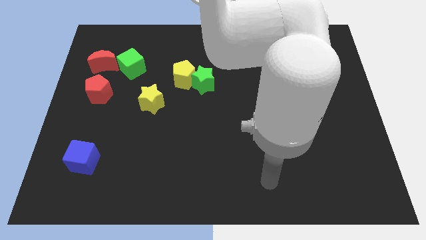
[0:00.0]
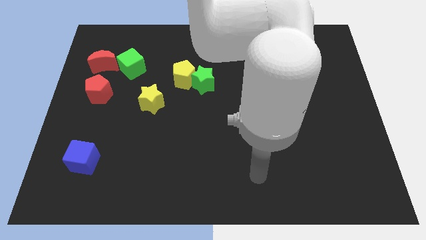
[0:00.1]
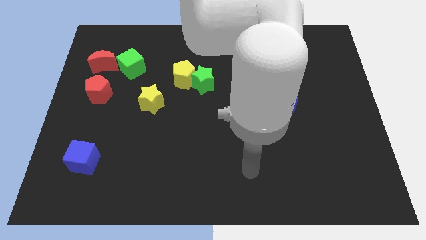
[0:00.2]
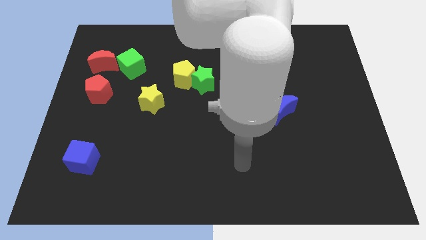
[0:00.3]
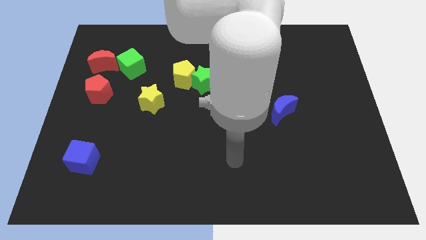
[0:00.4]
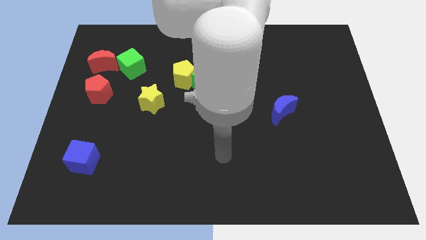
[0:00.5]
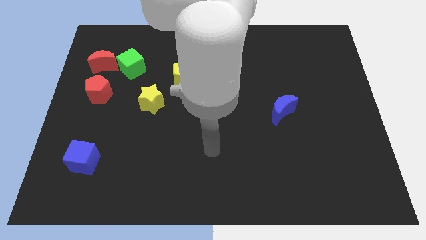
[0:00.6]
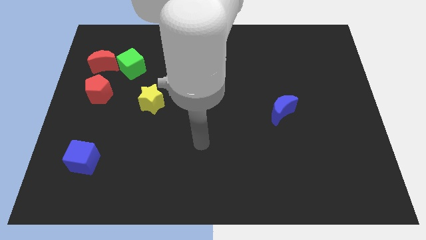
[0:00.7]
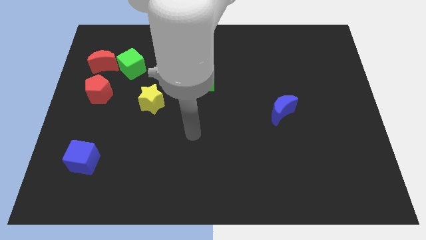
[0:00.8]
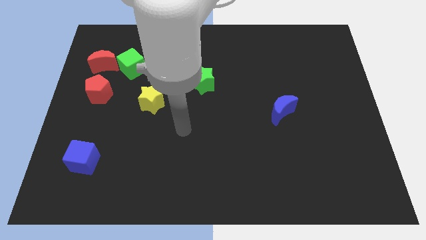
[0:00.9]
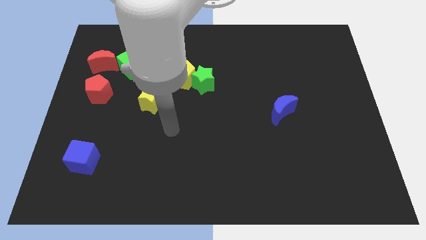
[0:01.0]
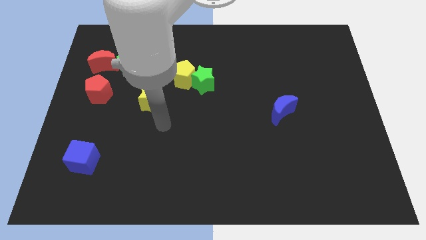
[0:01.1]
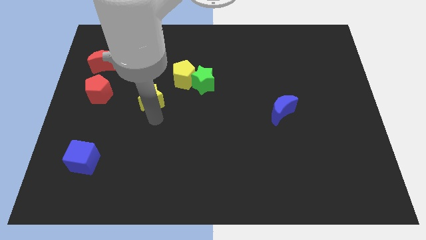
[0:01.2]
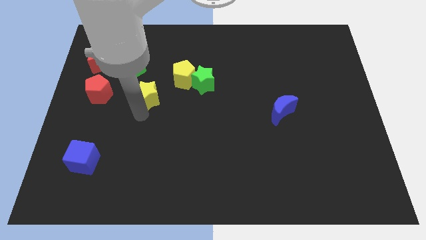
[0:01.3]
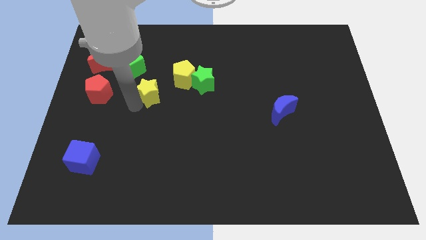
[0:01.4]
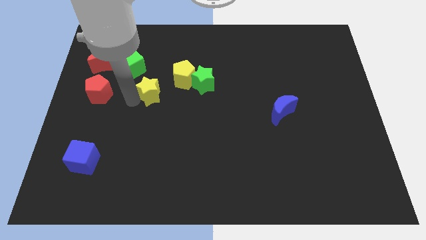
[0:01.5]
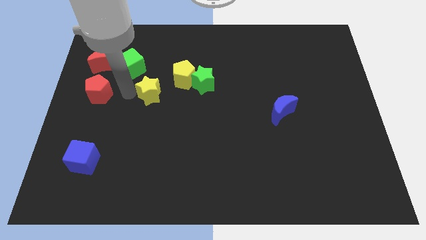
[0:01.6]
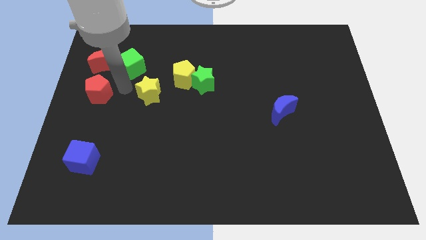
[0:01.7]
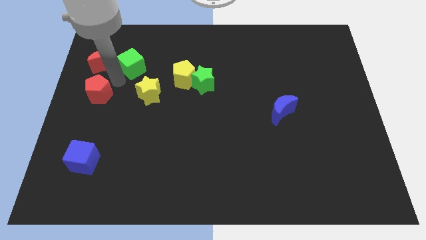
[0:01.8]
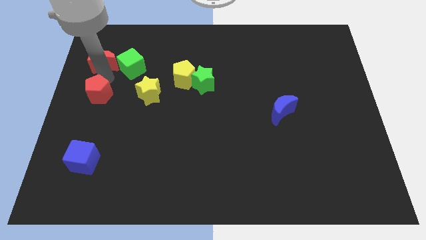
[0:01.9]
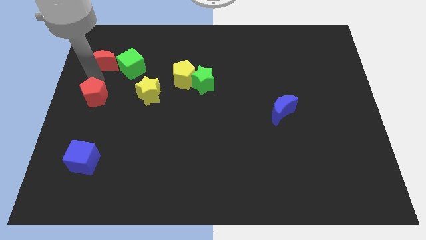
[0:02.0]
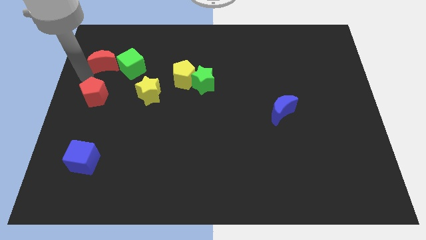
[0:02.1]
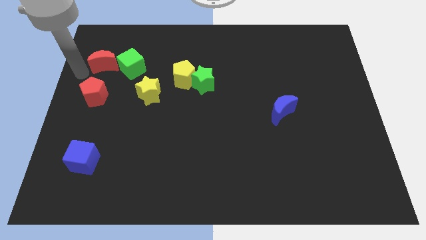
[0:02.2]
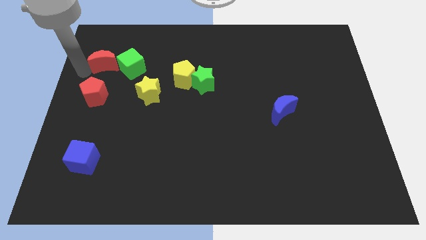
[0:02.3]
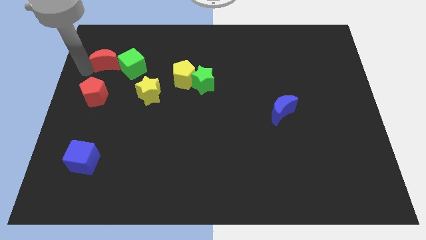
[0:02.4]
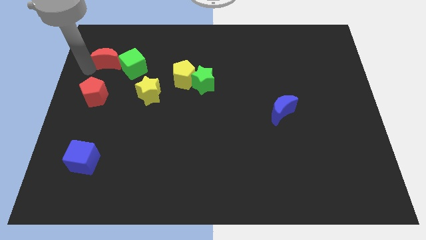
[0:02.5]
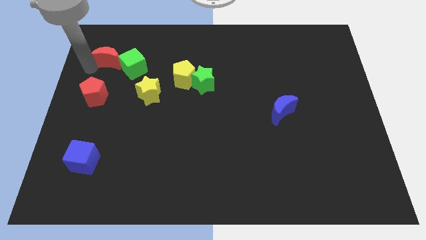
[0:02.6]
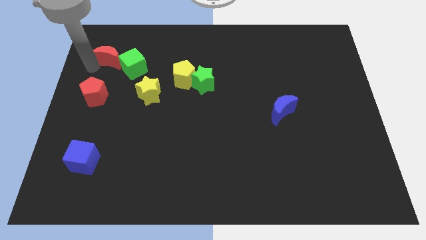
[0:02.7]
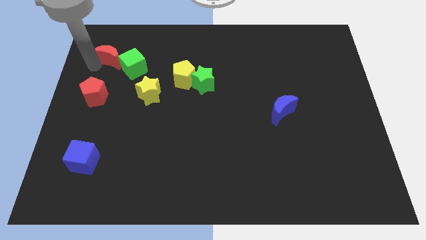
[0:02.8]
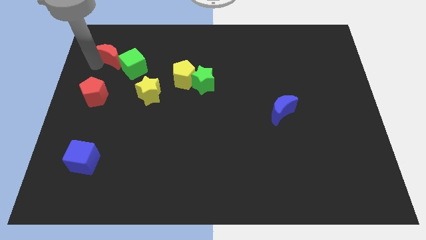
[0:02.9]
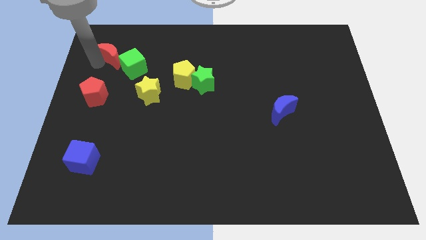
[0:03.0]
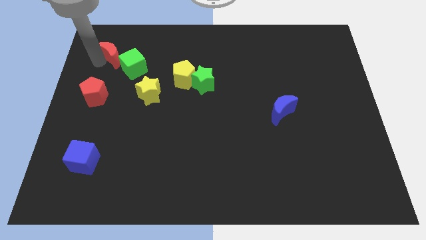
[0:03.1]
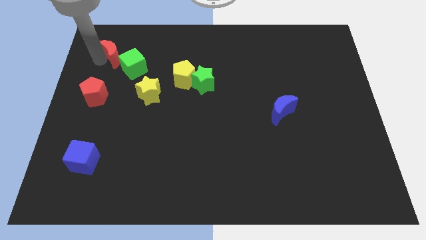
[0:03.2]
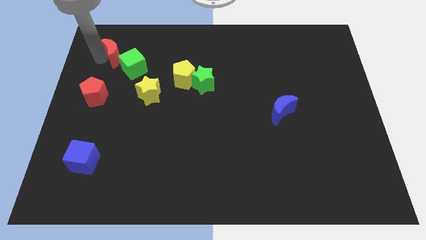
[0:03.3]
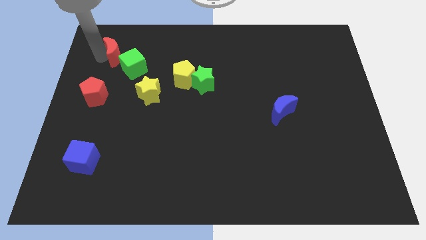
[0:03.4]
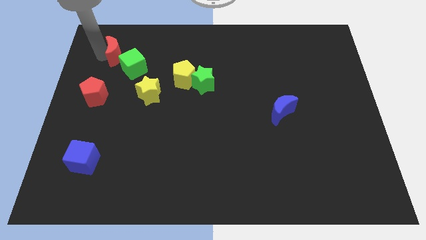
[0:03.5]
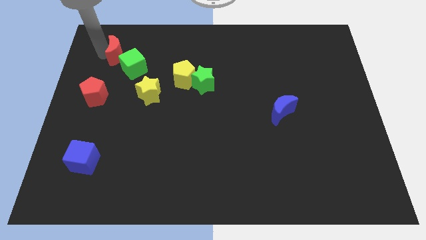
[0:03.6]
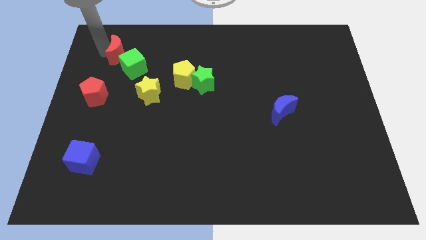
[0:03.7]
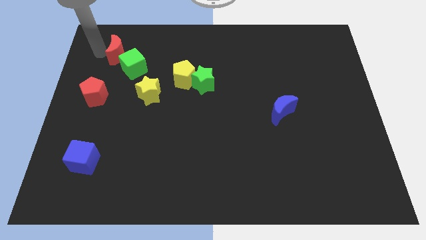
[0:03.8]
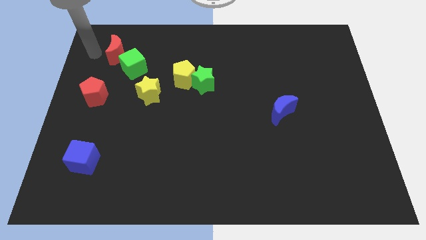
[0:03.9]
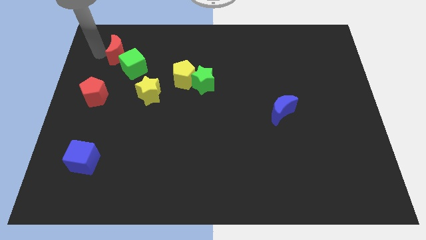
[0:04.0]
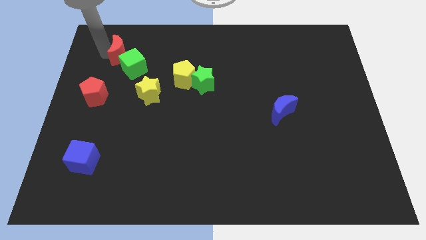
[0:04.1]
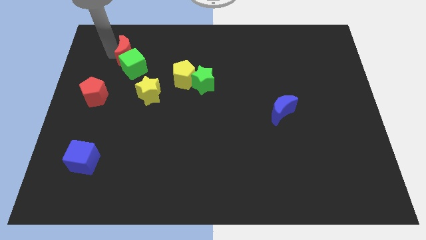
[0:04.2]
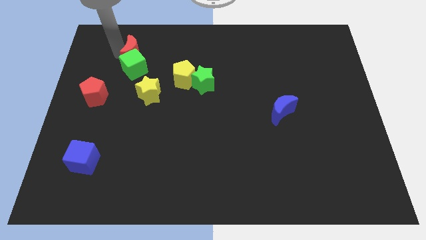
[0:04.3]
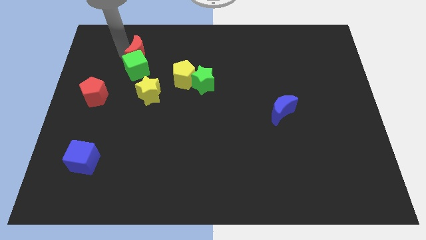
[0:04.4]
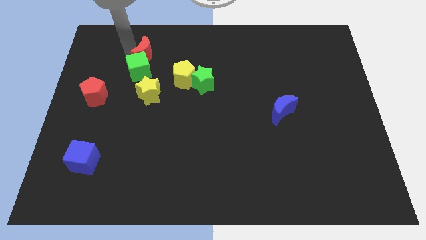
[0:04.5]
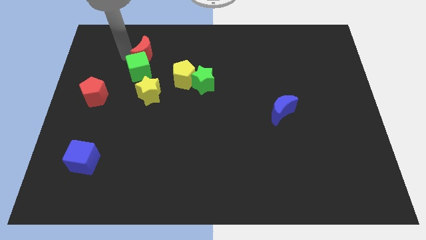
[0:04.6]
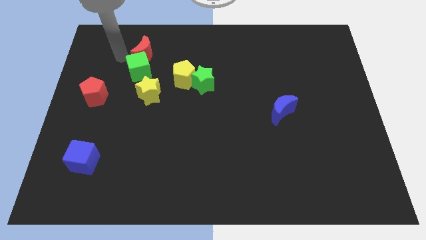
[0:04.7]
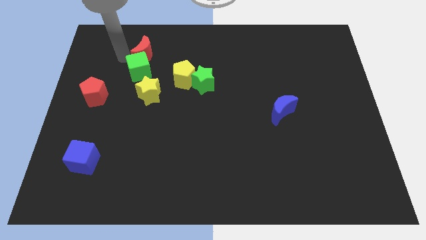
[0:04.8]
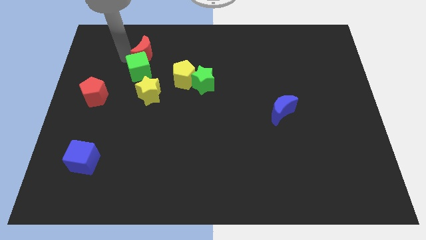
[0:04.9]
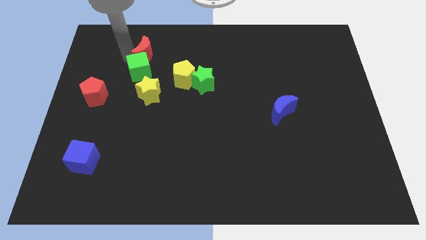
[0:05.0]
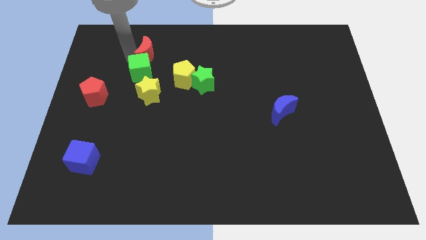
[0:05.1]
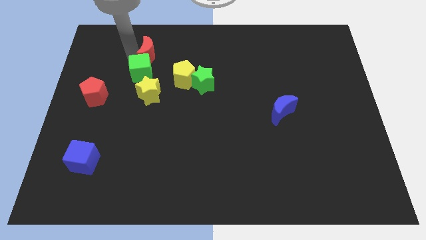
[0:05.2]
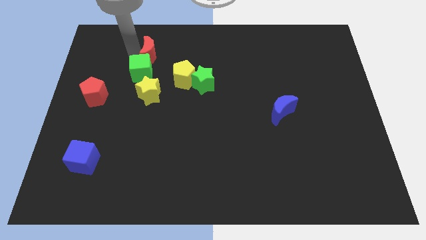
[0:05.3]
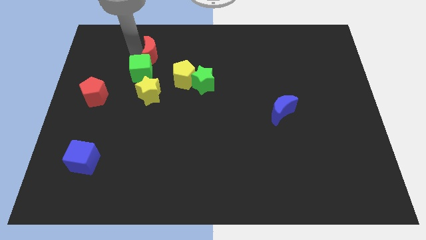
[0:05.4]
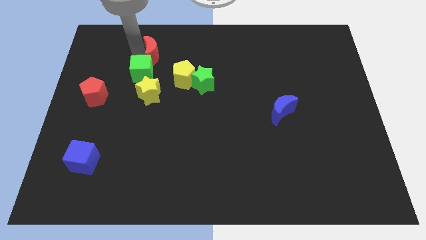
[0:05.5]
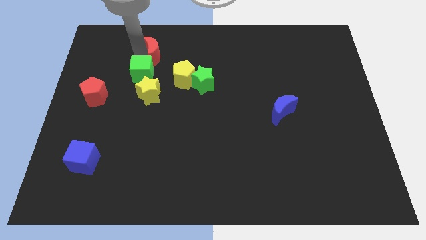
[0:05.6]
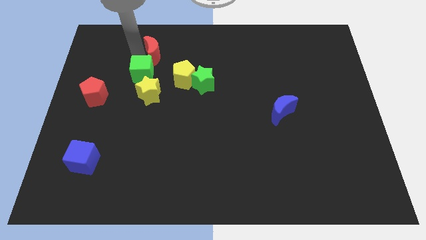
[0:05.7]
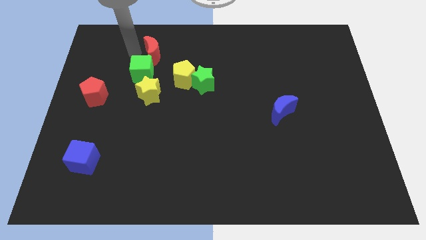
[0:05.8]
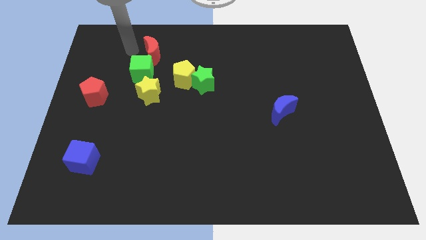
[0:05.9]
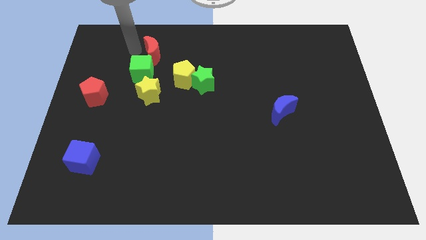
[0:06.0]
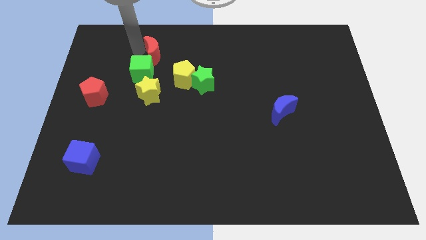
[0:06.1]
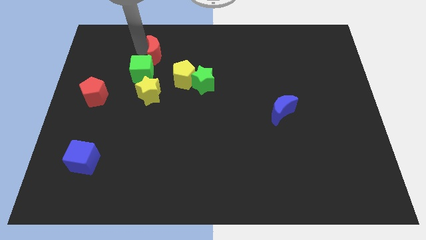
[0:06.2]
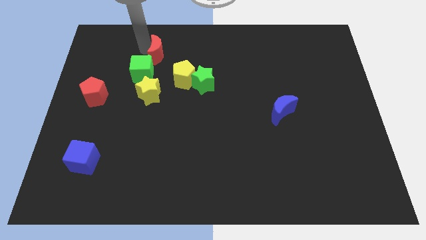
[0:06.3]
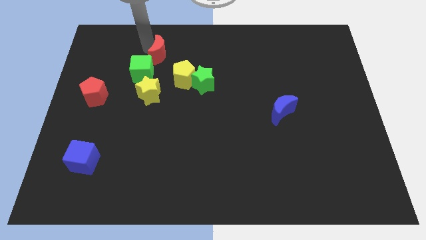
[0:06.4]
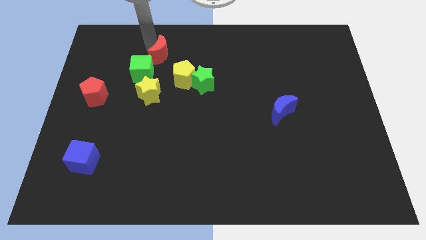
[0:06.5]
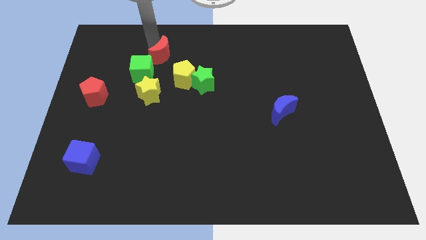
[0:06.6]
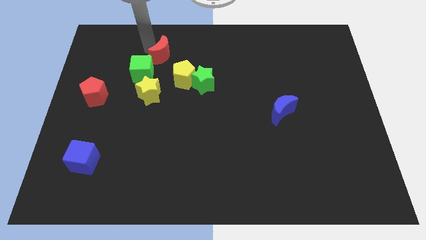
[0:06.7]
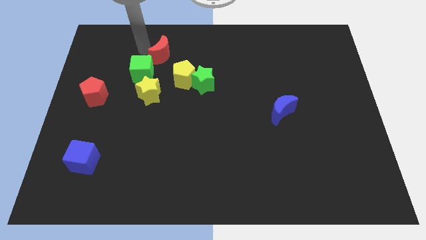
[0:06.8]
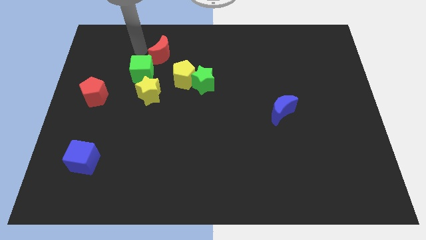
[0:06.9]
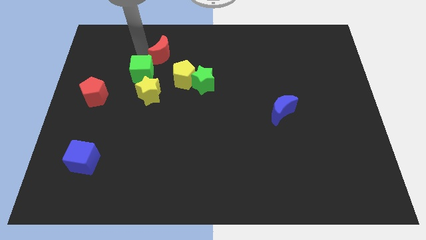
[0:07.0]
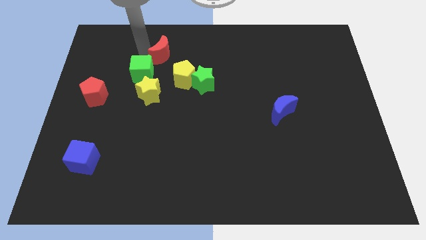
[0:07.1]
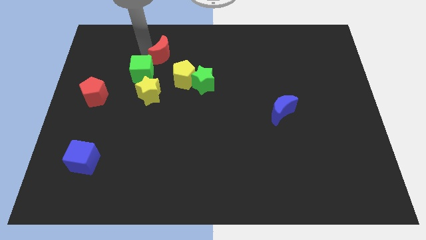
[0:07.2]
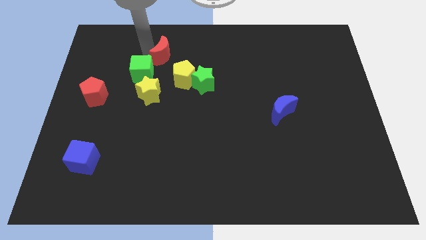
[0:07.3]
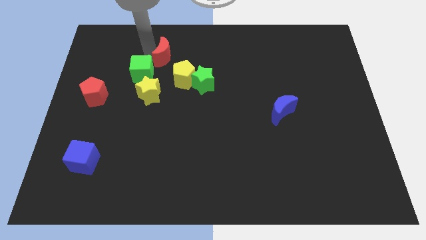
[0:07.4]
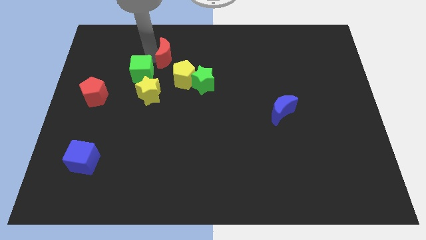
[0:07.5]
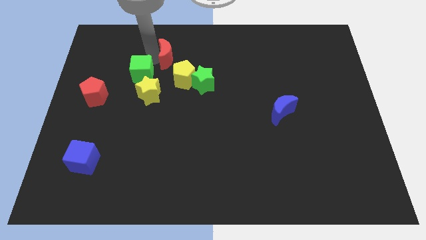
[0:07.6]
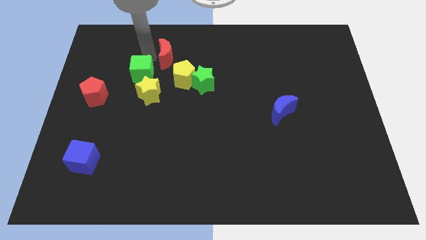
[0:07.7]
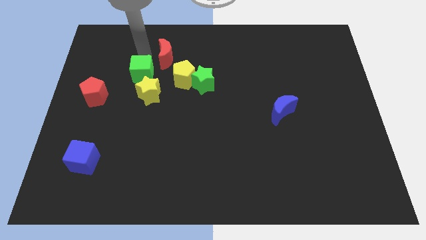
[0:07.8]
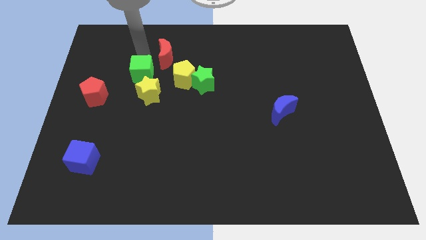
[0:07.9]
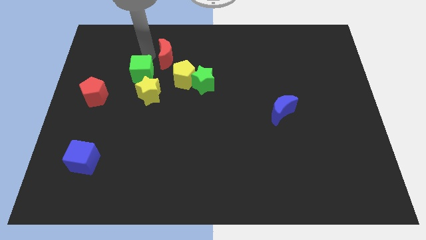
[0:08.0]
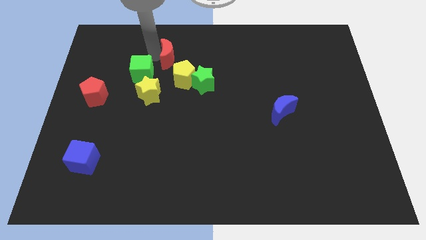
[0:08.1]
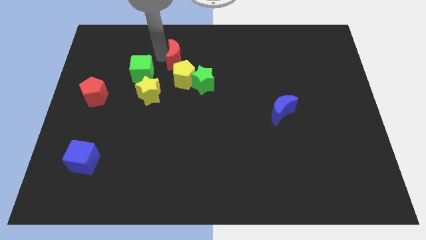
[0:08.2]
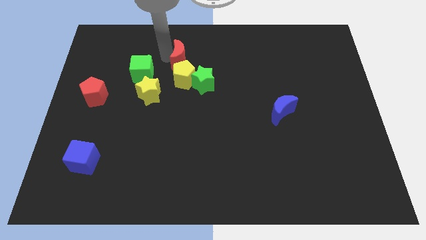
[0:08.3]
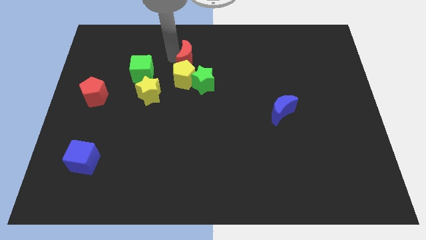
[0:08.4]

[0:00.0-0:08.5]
push the red moon to the top right of the yellow pentagon
